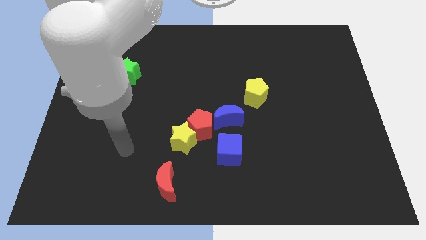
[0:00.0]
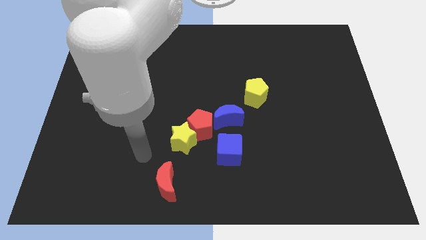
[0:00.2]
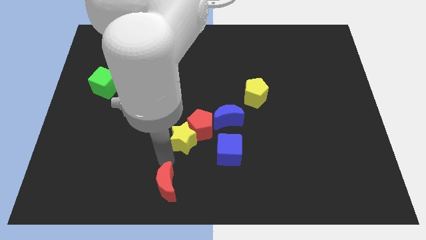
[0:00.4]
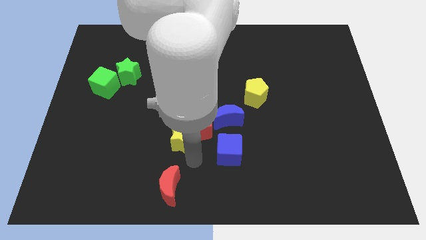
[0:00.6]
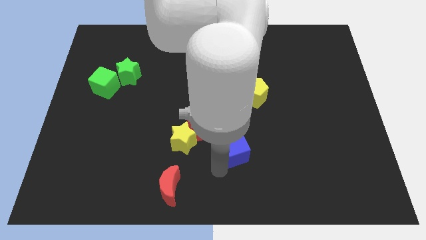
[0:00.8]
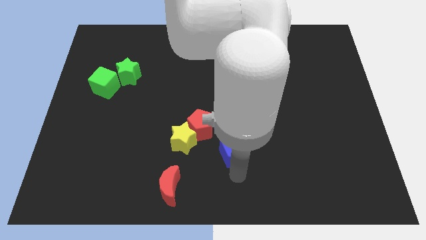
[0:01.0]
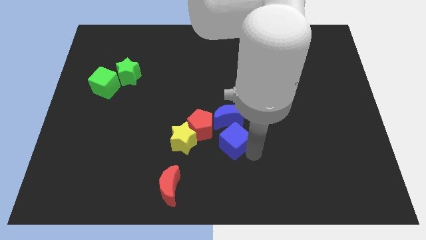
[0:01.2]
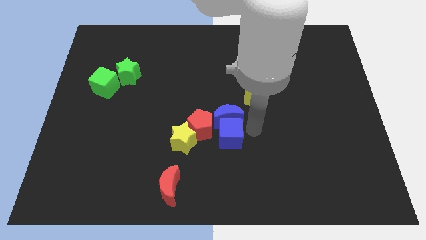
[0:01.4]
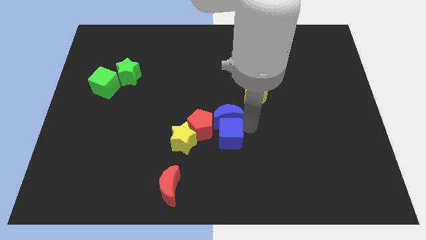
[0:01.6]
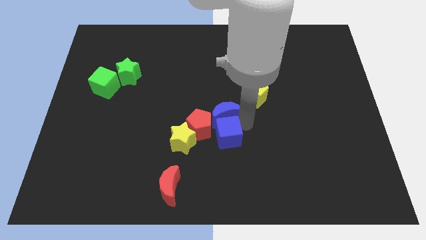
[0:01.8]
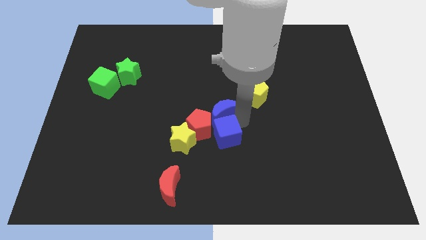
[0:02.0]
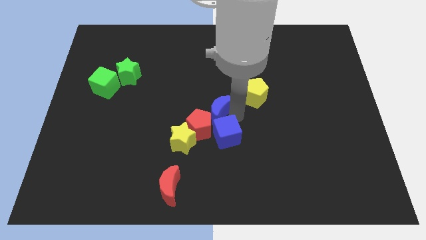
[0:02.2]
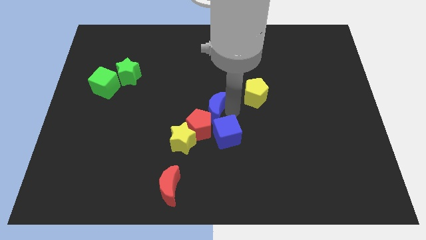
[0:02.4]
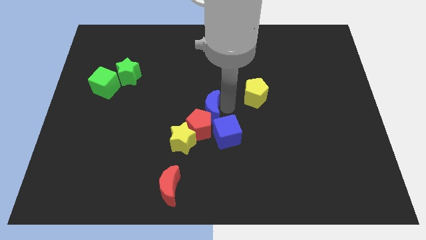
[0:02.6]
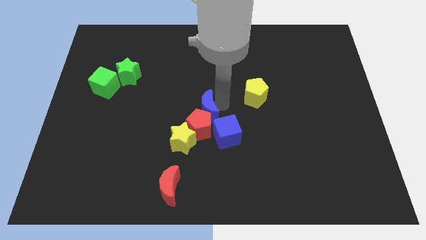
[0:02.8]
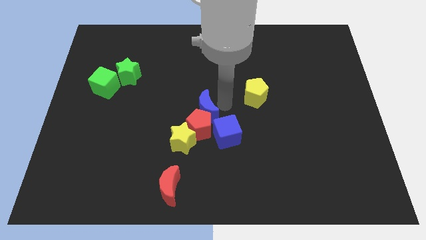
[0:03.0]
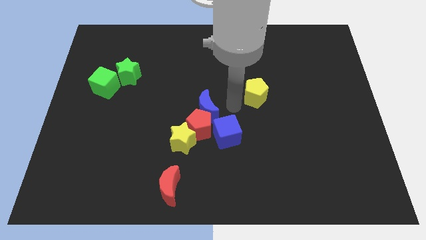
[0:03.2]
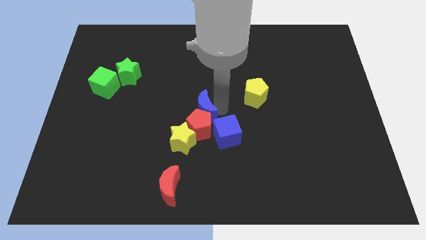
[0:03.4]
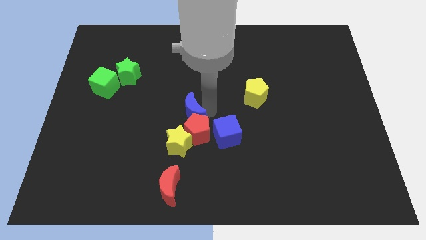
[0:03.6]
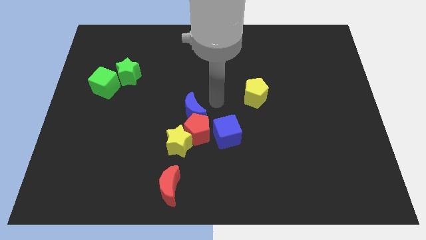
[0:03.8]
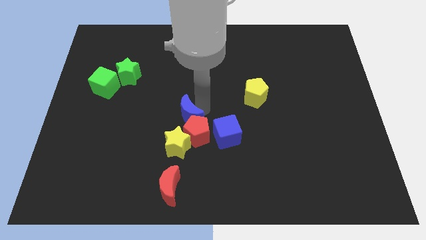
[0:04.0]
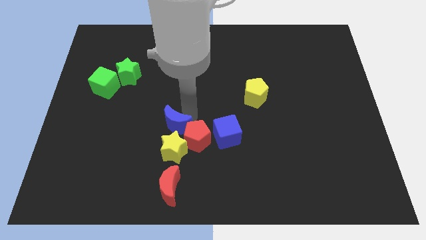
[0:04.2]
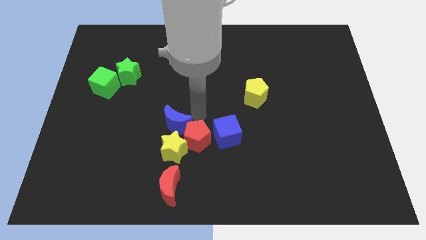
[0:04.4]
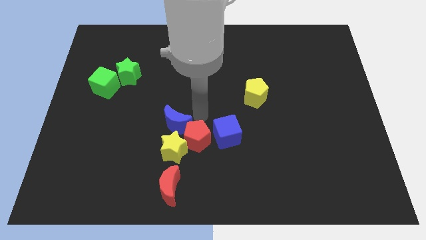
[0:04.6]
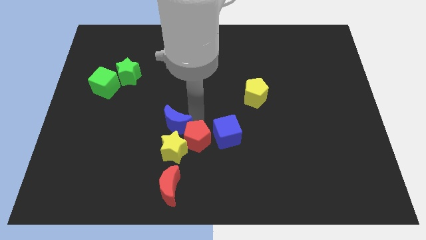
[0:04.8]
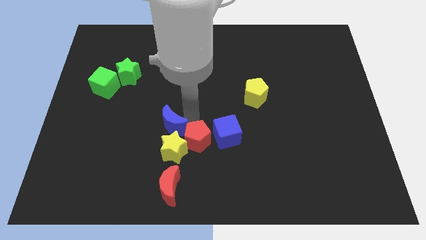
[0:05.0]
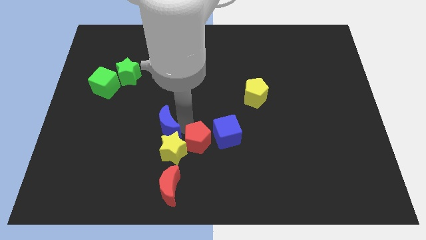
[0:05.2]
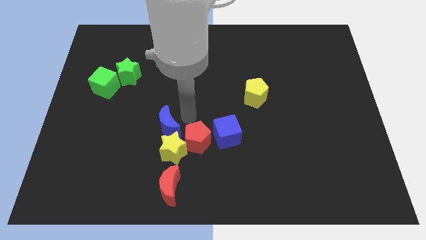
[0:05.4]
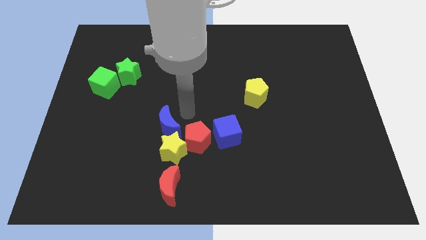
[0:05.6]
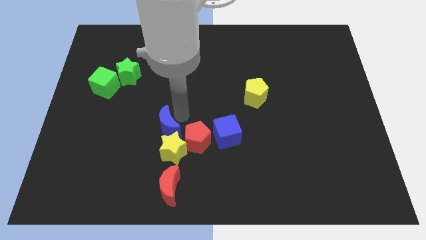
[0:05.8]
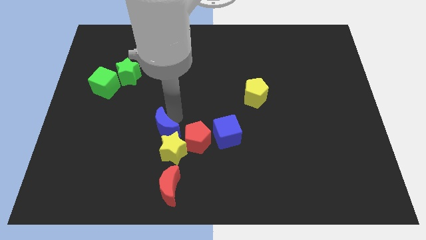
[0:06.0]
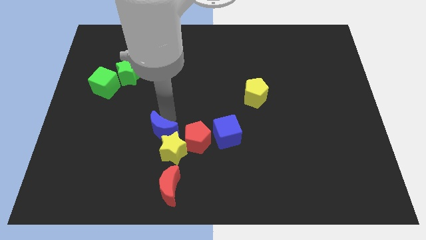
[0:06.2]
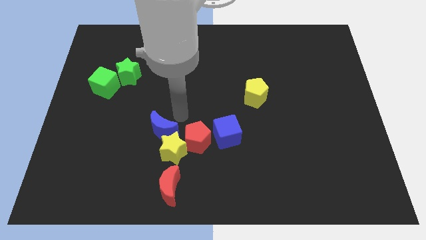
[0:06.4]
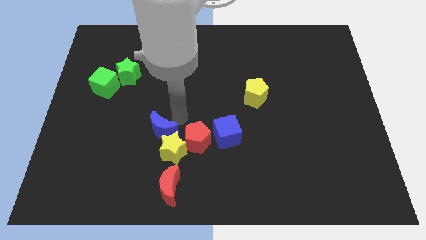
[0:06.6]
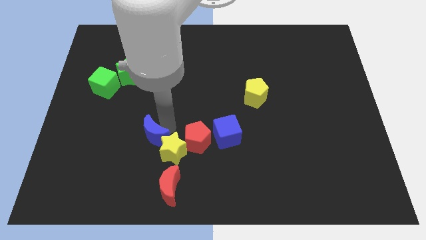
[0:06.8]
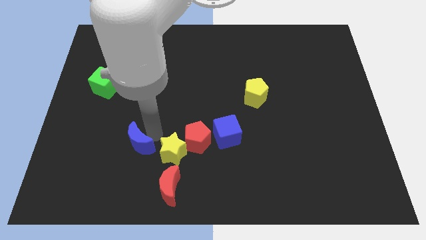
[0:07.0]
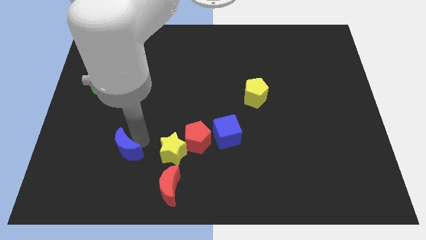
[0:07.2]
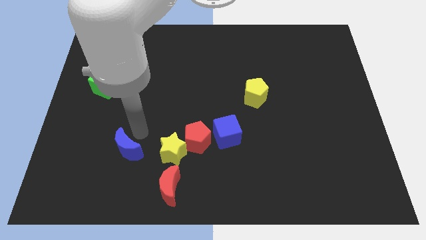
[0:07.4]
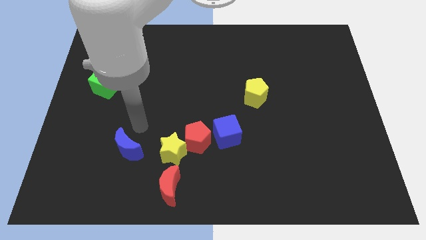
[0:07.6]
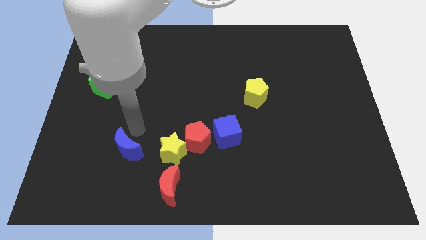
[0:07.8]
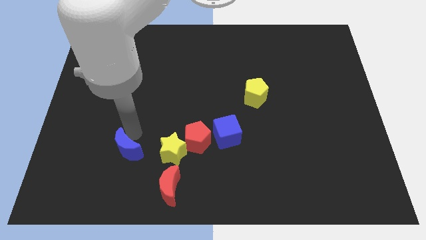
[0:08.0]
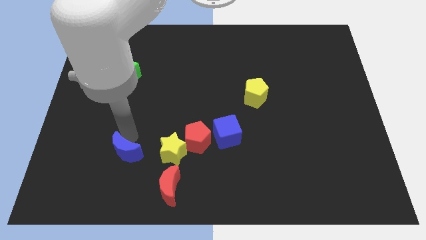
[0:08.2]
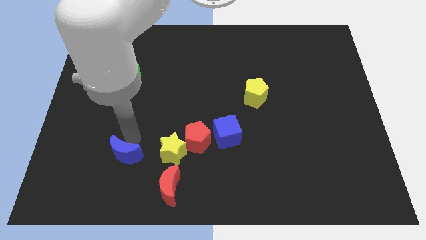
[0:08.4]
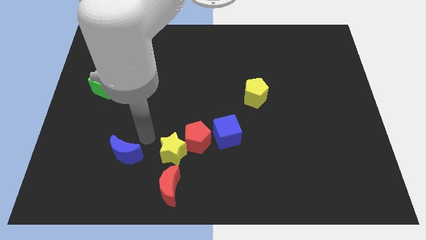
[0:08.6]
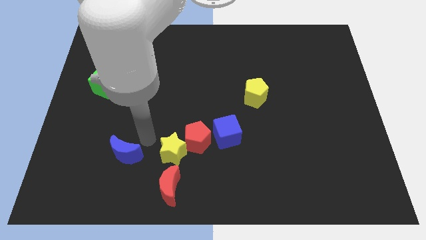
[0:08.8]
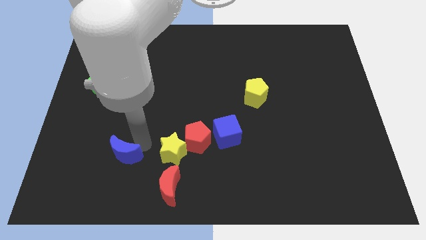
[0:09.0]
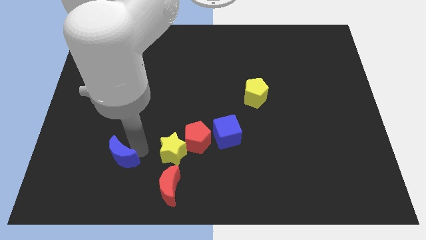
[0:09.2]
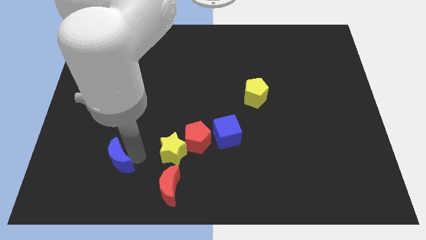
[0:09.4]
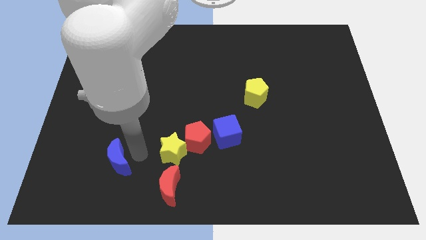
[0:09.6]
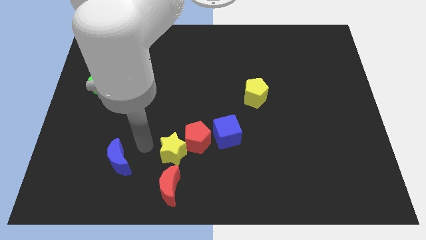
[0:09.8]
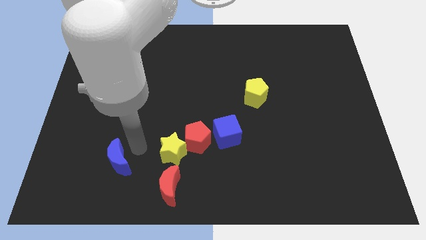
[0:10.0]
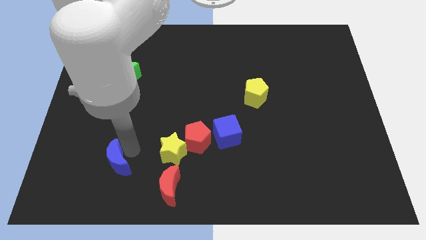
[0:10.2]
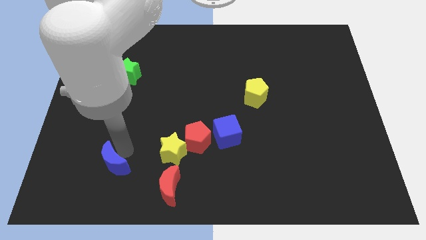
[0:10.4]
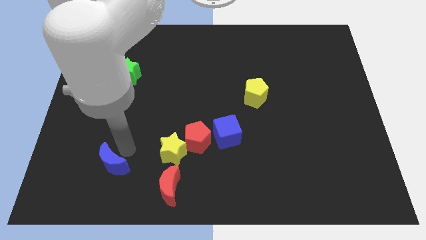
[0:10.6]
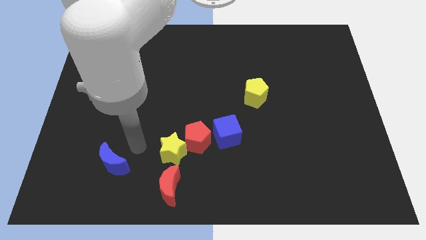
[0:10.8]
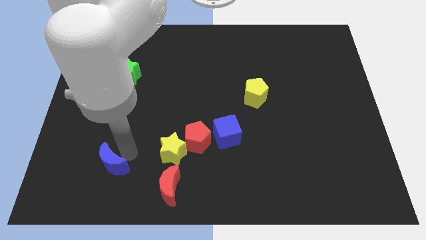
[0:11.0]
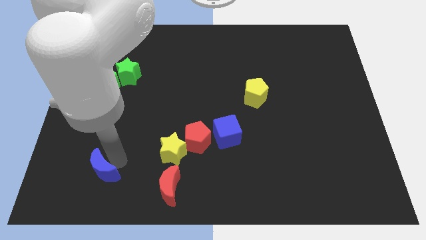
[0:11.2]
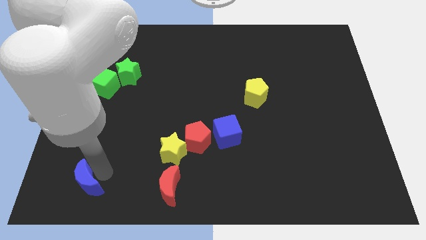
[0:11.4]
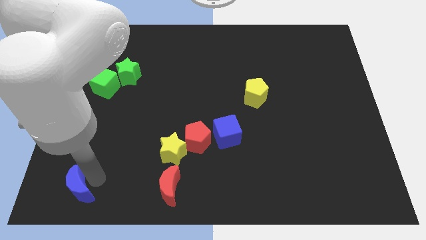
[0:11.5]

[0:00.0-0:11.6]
push the blue moon to the bottom left corner

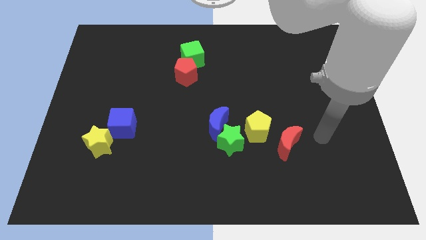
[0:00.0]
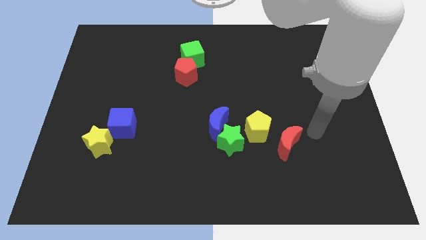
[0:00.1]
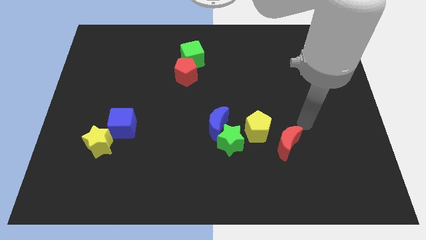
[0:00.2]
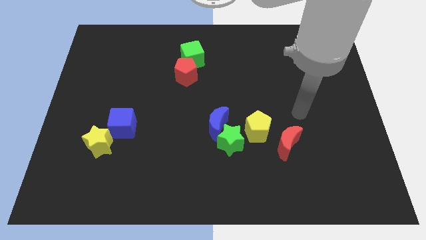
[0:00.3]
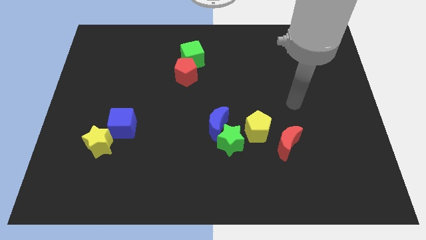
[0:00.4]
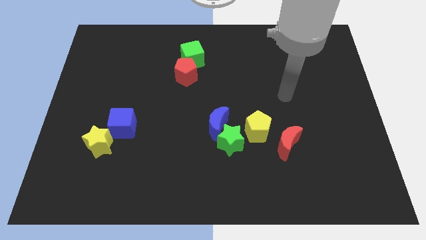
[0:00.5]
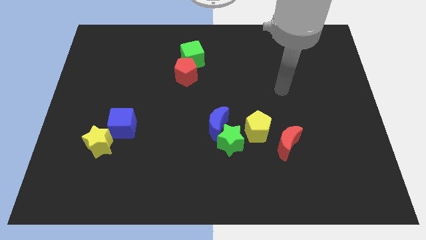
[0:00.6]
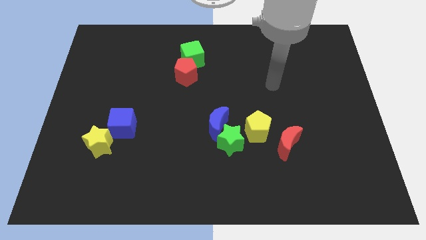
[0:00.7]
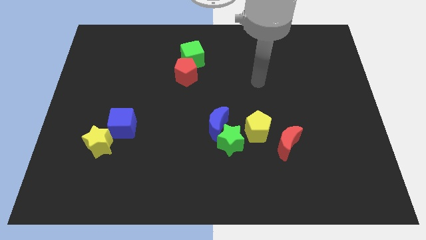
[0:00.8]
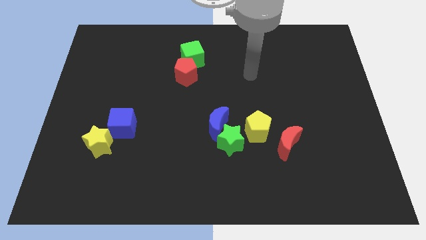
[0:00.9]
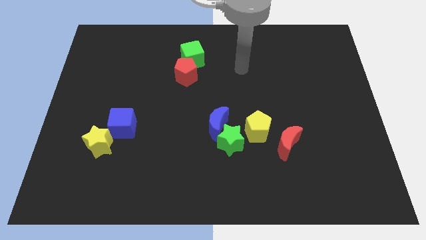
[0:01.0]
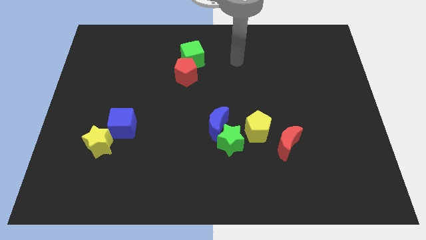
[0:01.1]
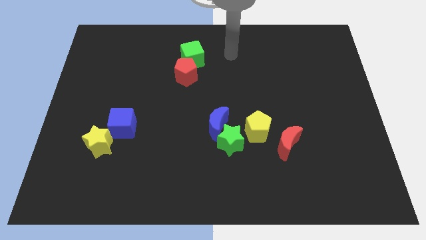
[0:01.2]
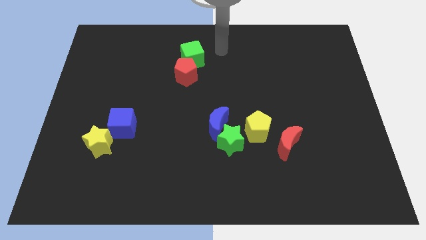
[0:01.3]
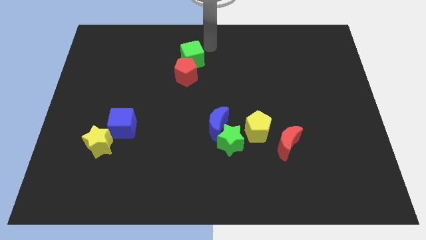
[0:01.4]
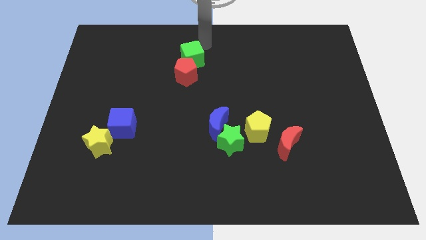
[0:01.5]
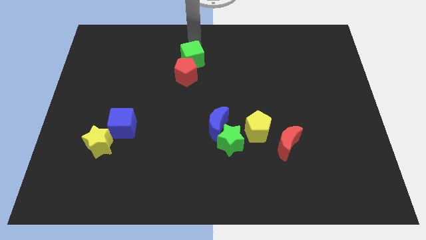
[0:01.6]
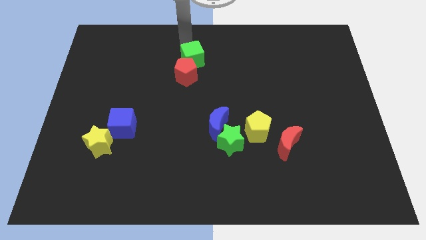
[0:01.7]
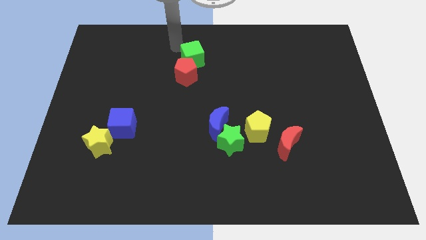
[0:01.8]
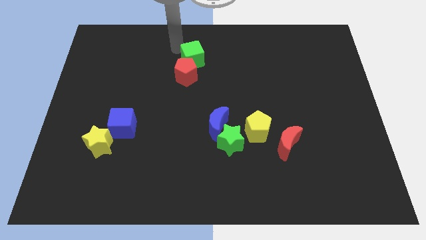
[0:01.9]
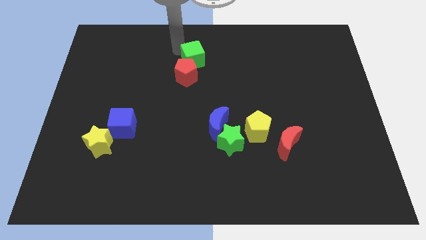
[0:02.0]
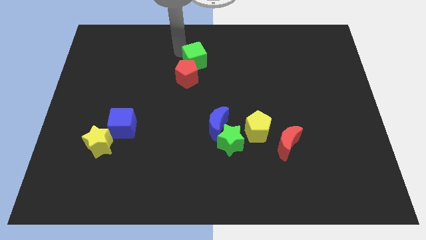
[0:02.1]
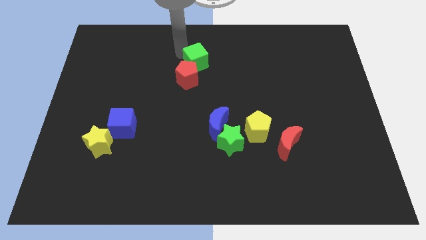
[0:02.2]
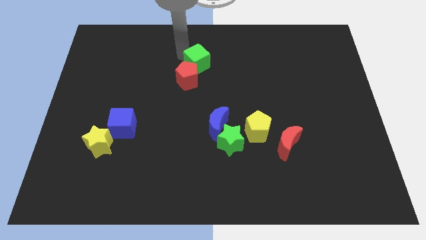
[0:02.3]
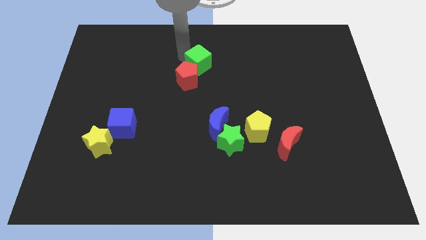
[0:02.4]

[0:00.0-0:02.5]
push the green cube to the middle of the board
